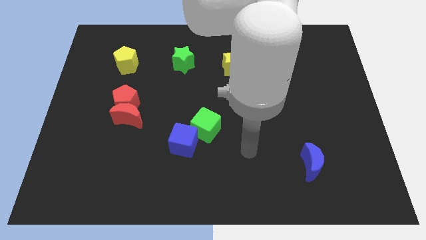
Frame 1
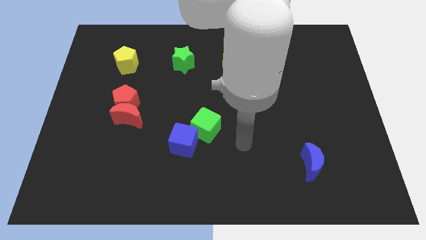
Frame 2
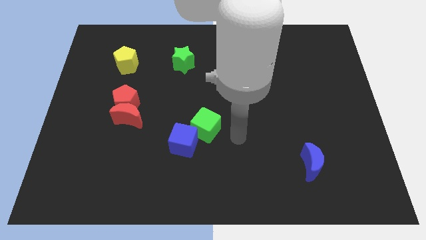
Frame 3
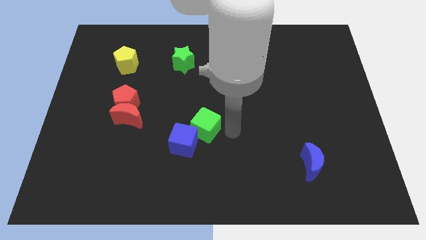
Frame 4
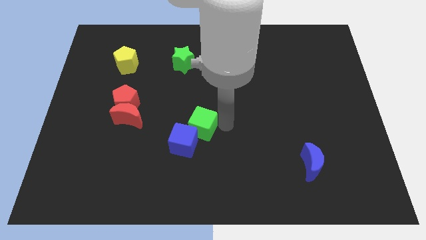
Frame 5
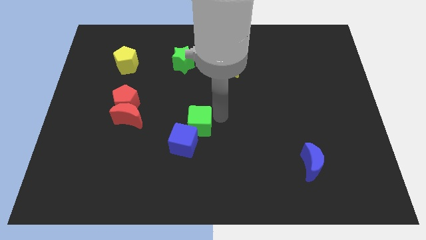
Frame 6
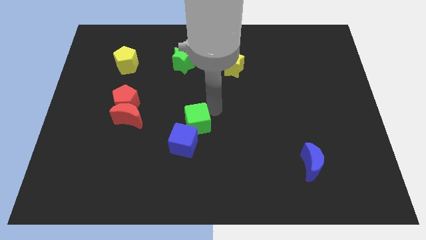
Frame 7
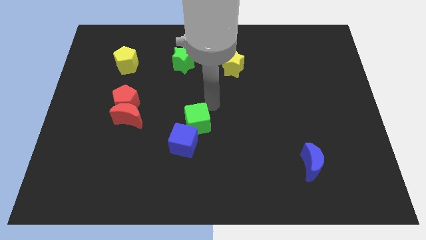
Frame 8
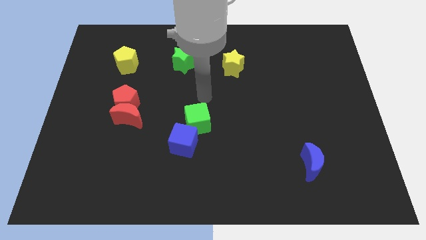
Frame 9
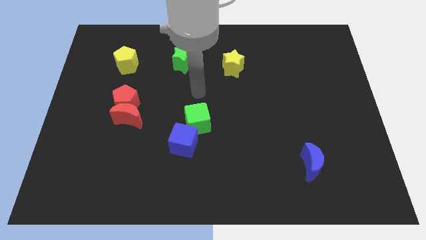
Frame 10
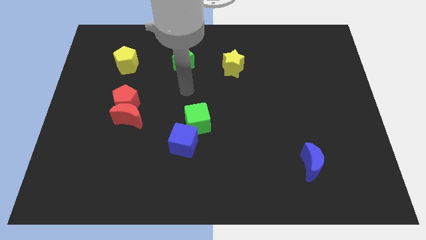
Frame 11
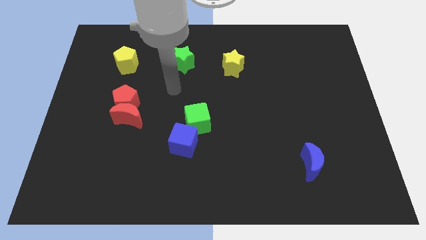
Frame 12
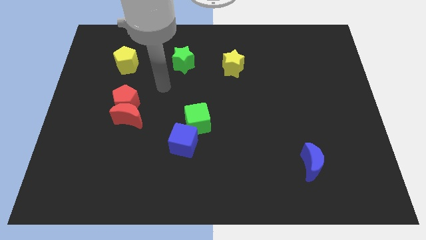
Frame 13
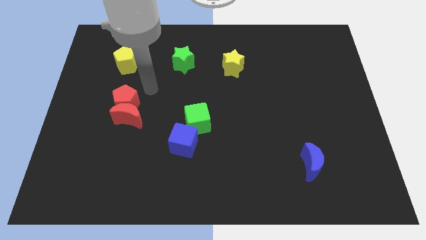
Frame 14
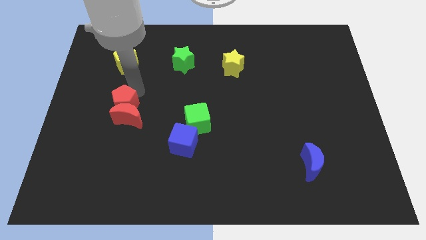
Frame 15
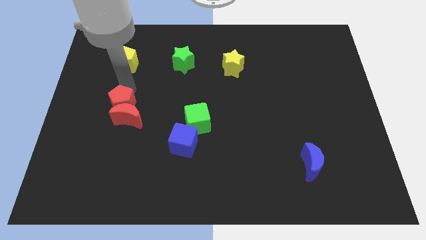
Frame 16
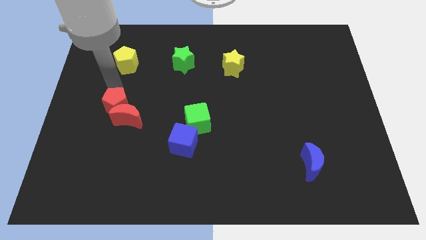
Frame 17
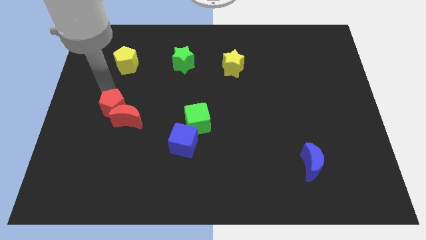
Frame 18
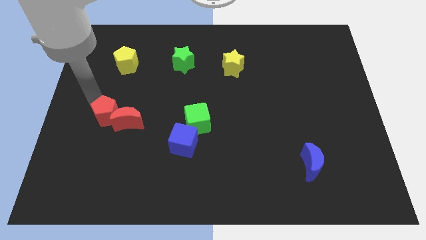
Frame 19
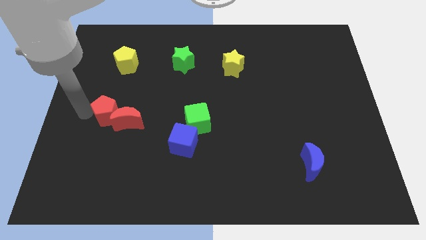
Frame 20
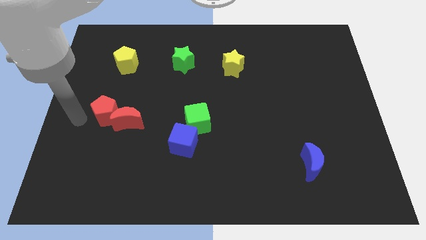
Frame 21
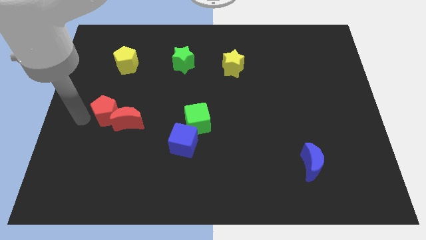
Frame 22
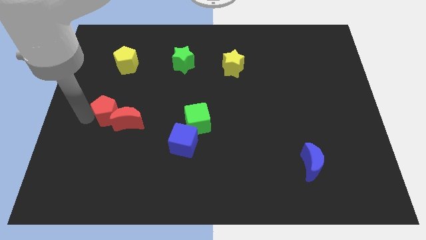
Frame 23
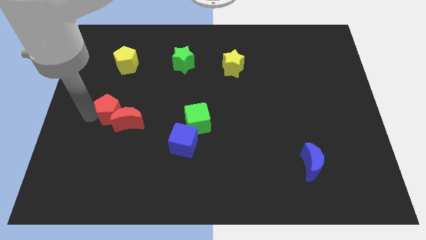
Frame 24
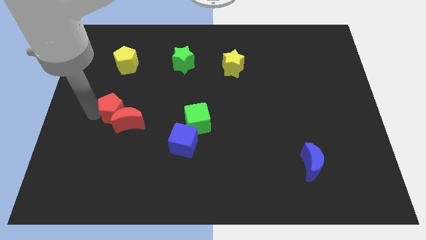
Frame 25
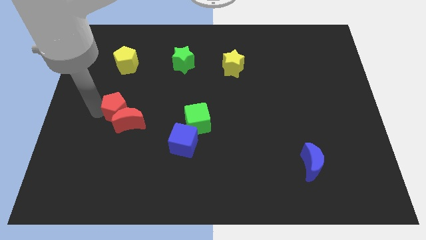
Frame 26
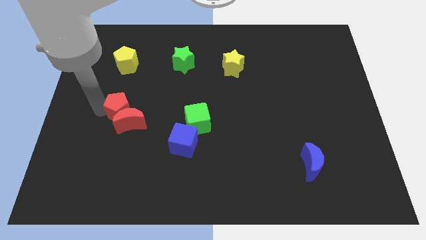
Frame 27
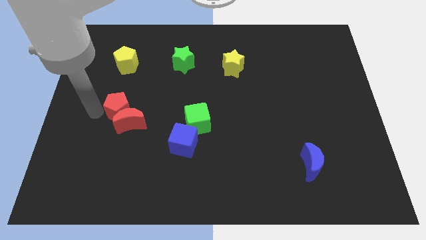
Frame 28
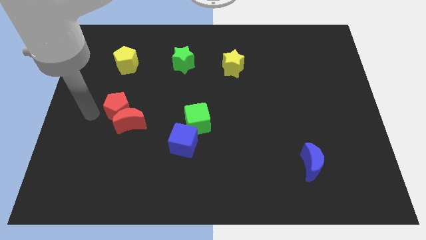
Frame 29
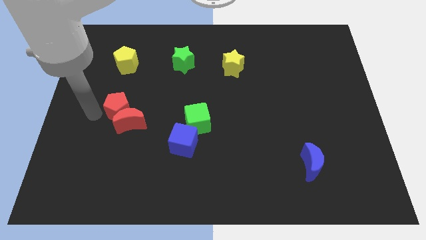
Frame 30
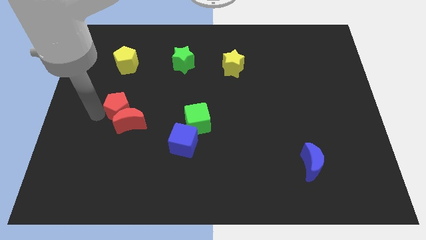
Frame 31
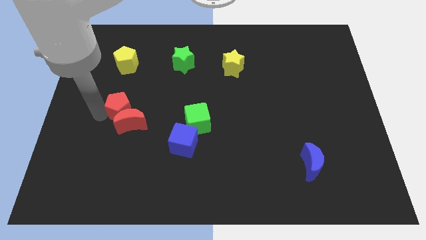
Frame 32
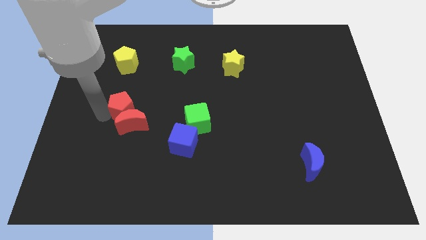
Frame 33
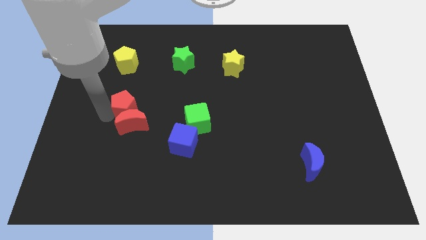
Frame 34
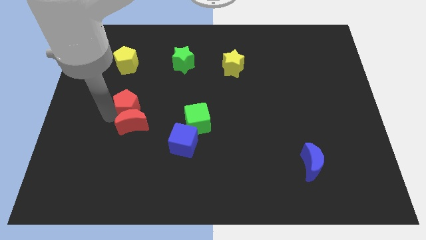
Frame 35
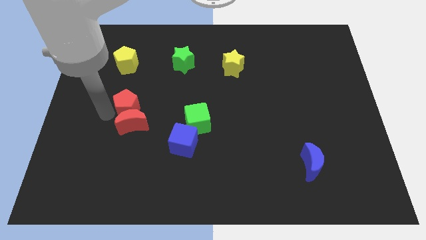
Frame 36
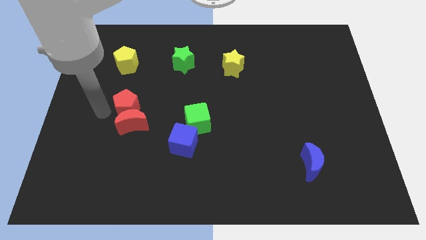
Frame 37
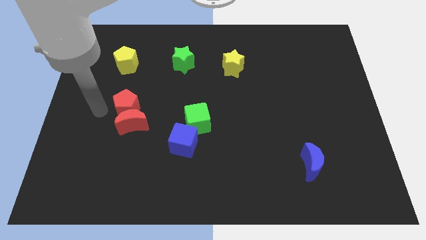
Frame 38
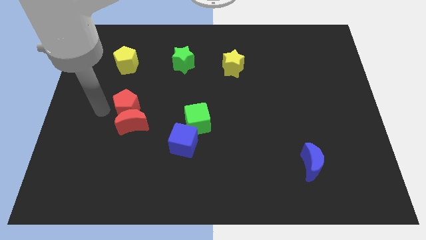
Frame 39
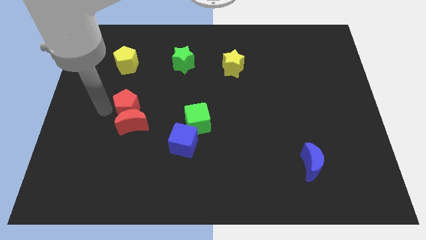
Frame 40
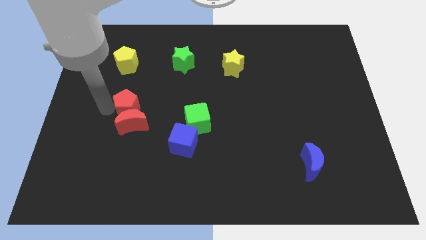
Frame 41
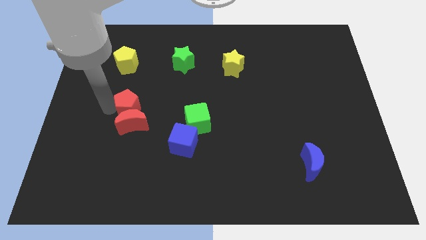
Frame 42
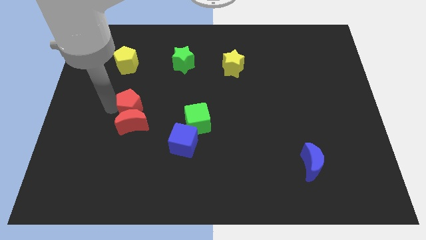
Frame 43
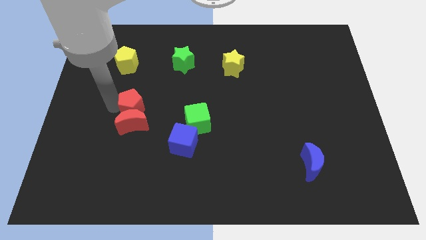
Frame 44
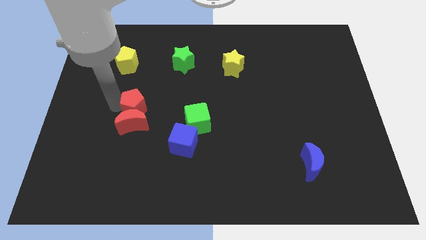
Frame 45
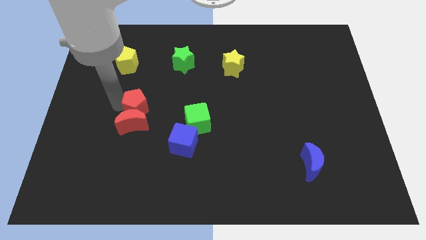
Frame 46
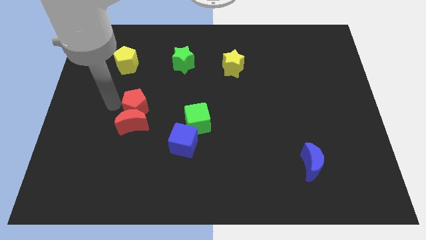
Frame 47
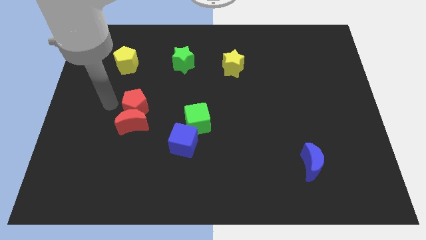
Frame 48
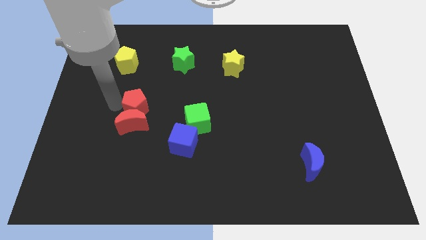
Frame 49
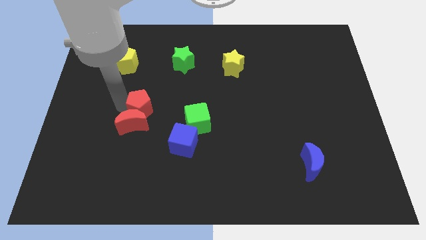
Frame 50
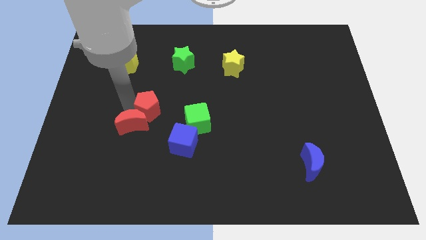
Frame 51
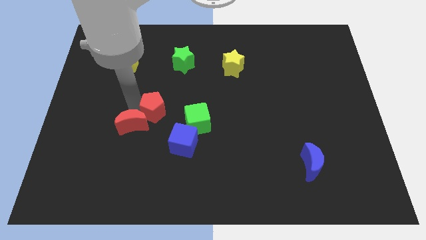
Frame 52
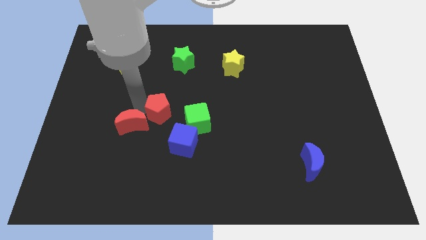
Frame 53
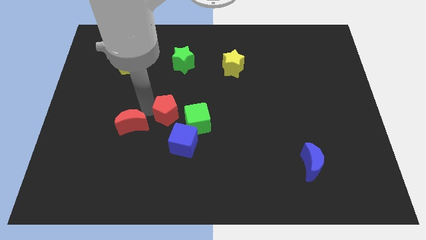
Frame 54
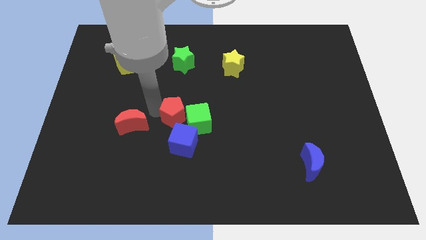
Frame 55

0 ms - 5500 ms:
push the red pentagon close to the green cube

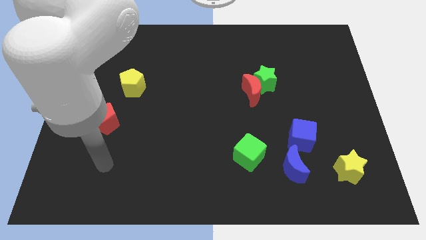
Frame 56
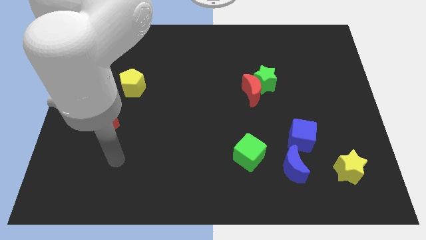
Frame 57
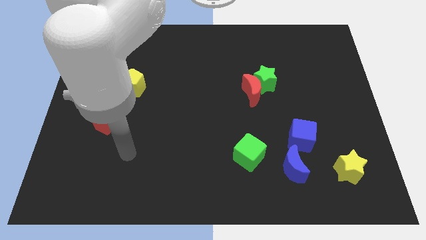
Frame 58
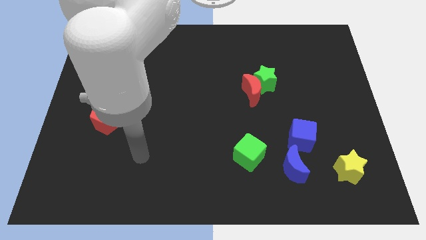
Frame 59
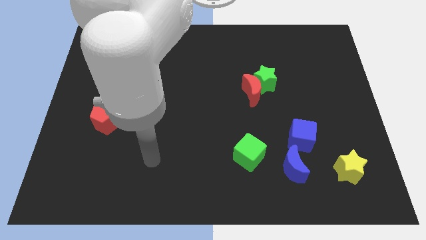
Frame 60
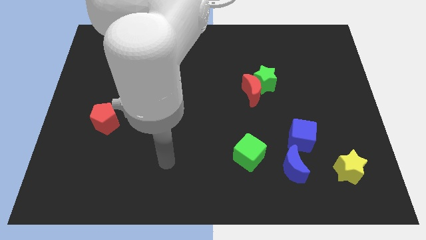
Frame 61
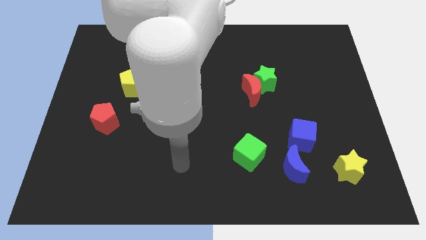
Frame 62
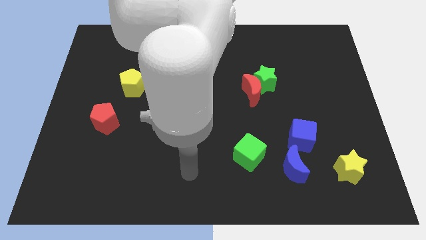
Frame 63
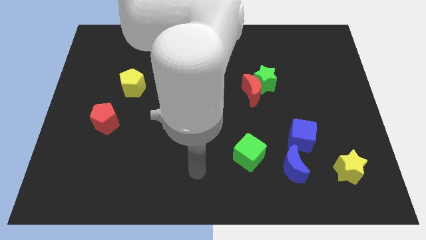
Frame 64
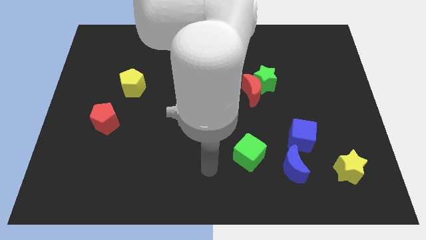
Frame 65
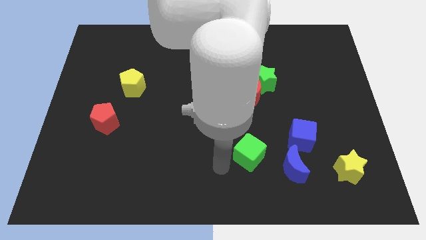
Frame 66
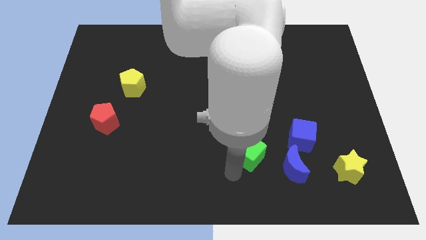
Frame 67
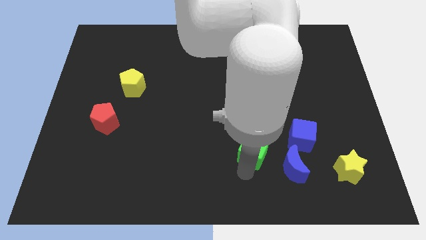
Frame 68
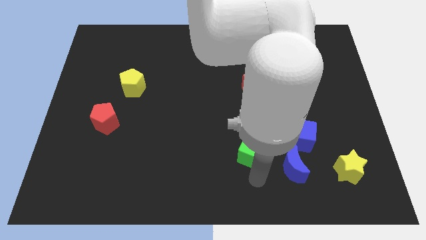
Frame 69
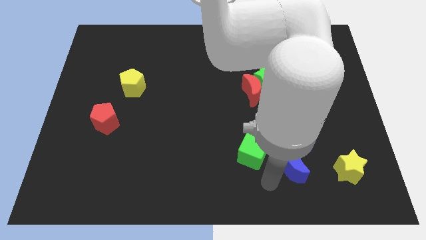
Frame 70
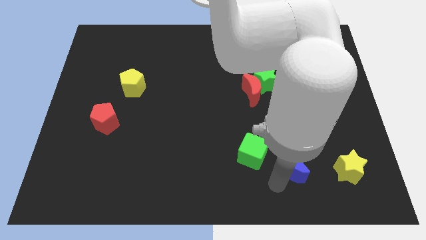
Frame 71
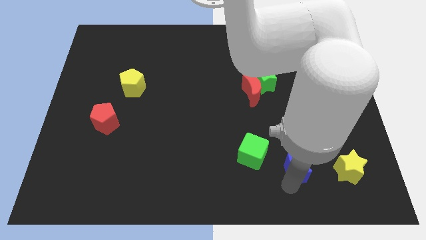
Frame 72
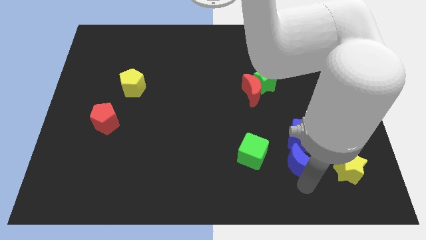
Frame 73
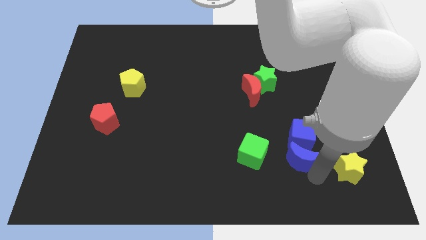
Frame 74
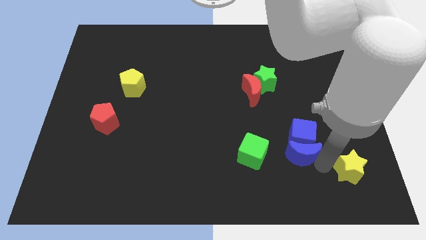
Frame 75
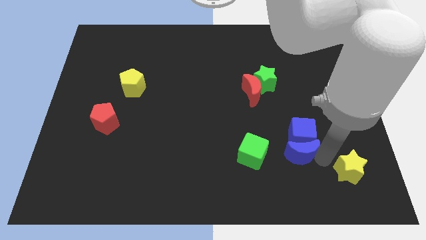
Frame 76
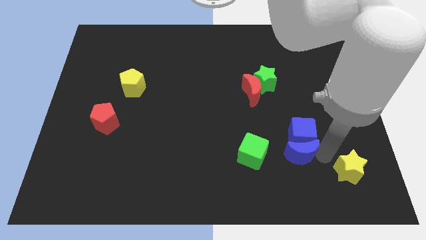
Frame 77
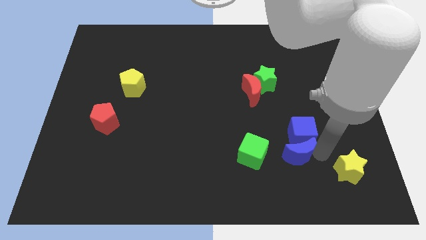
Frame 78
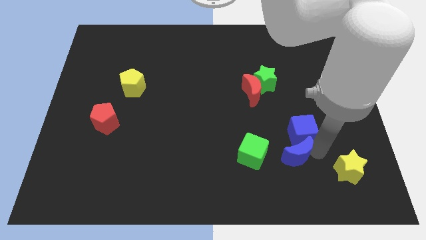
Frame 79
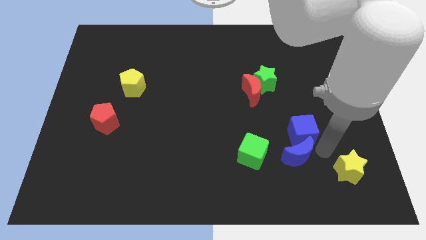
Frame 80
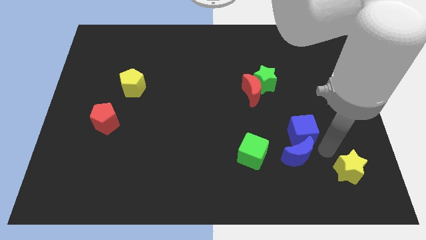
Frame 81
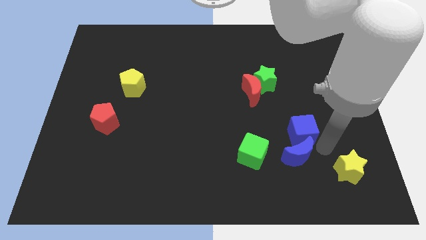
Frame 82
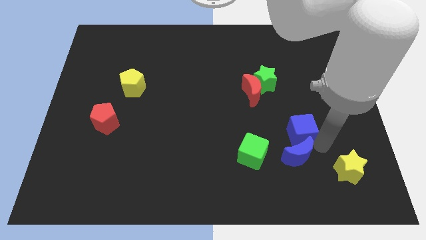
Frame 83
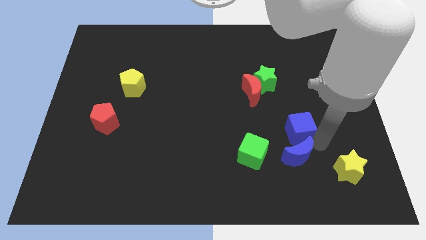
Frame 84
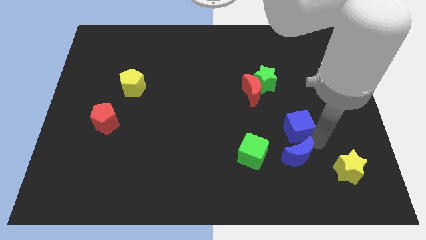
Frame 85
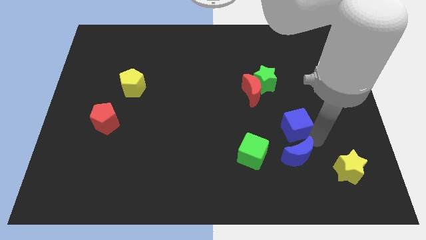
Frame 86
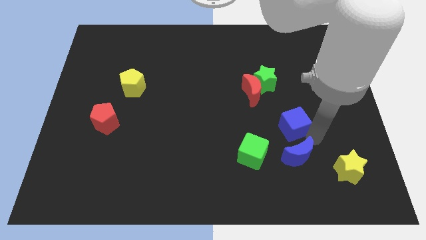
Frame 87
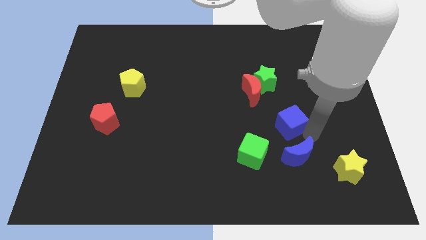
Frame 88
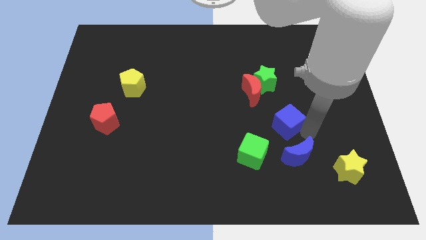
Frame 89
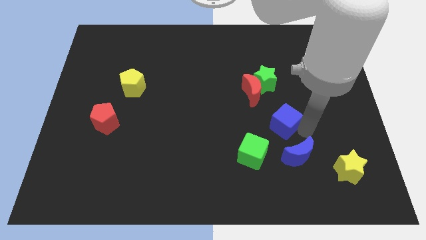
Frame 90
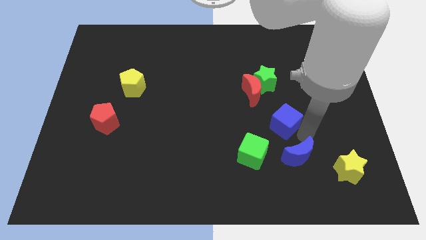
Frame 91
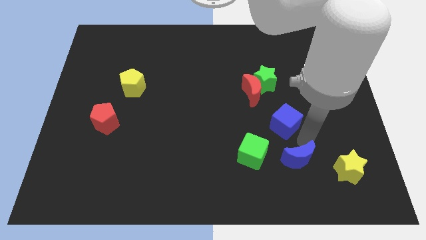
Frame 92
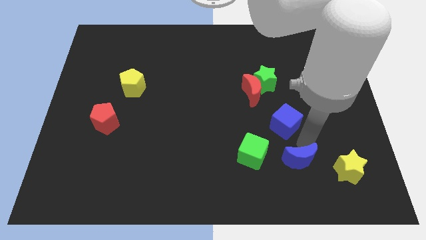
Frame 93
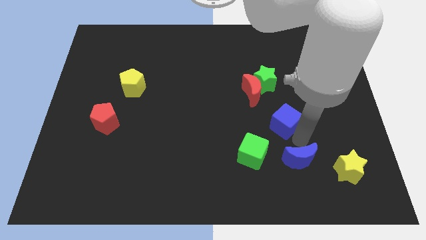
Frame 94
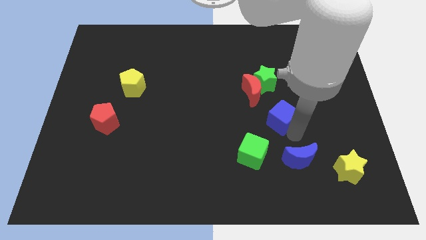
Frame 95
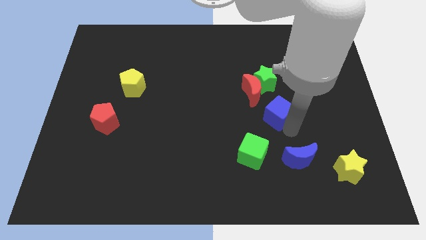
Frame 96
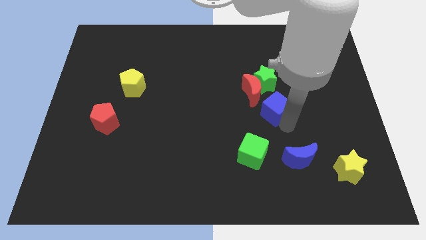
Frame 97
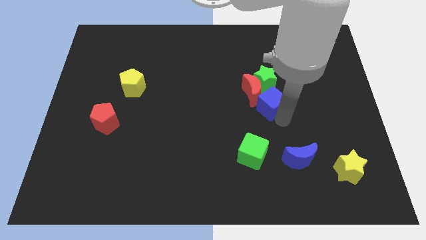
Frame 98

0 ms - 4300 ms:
move the blue cube next to the red moon
